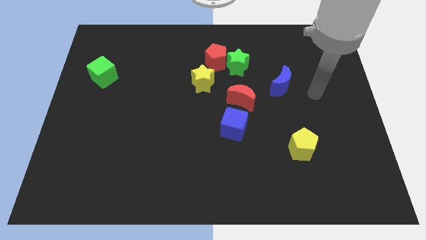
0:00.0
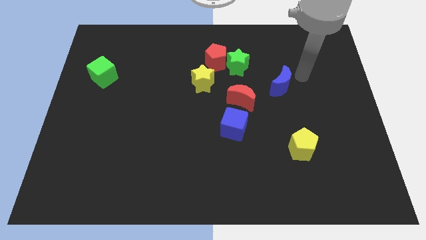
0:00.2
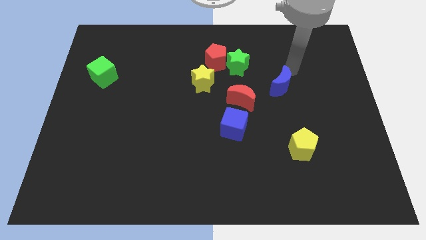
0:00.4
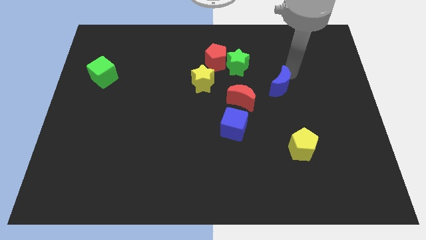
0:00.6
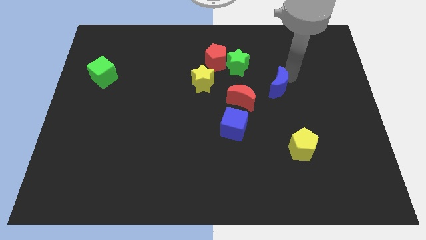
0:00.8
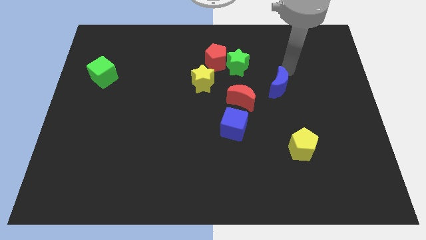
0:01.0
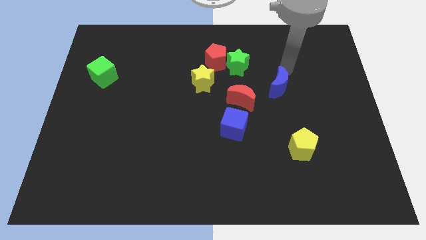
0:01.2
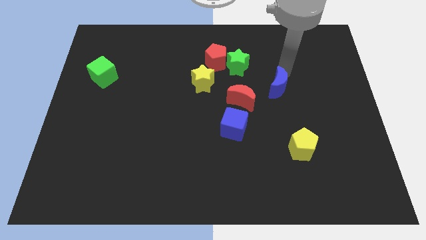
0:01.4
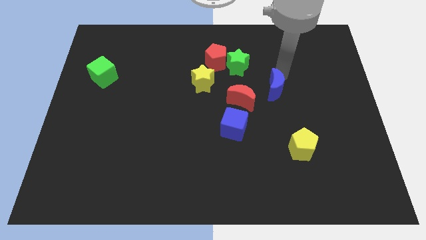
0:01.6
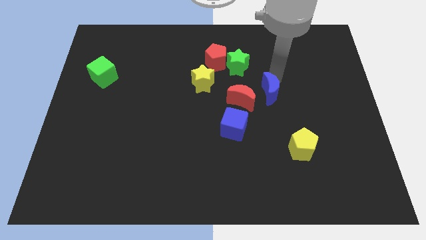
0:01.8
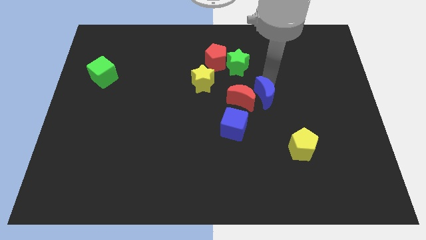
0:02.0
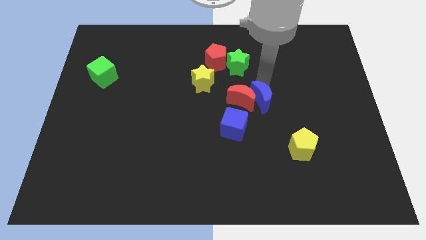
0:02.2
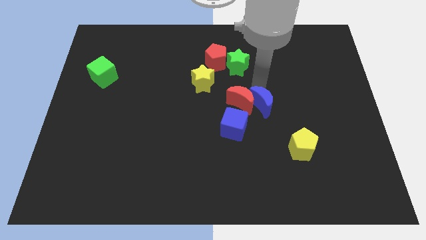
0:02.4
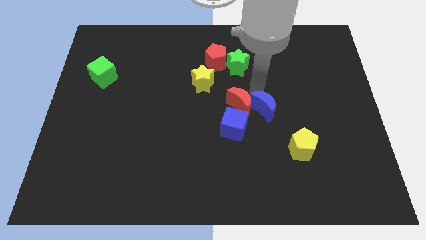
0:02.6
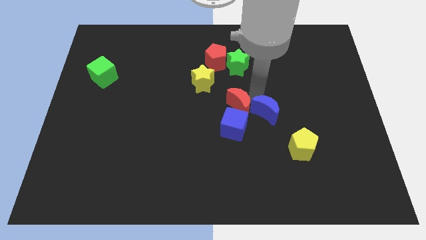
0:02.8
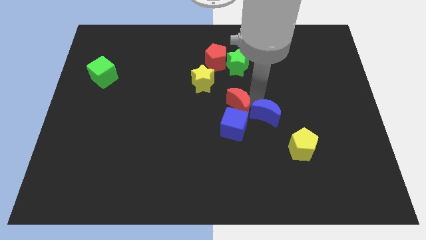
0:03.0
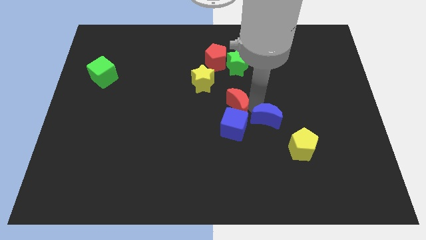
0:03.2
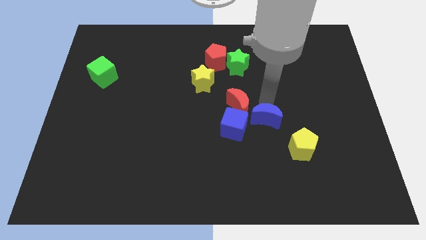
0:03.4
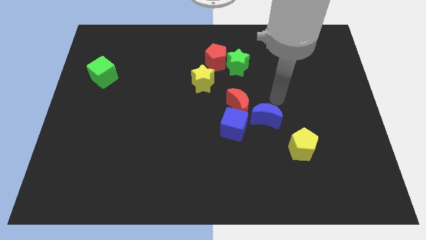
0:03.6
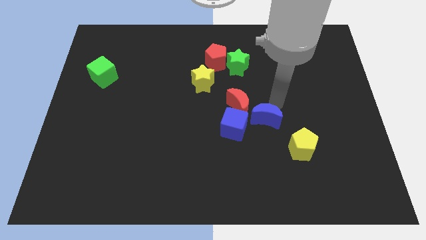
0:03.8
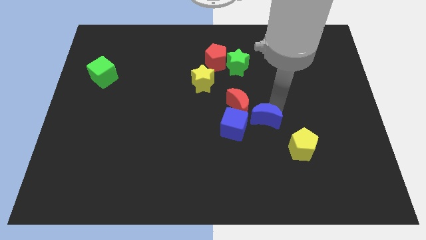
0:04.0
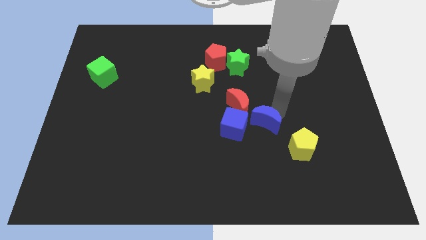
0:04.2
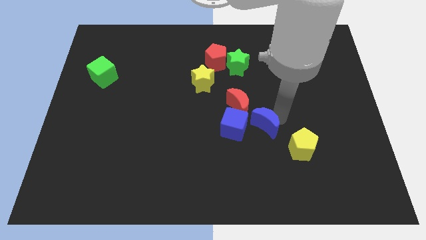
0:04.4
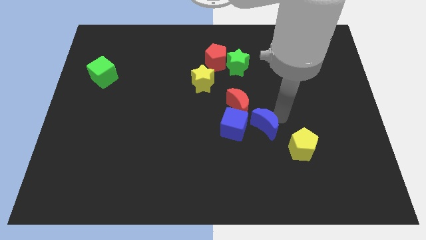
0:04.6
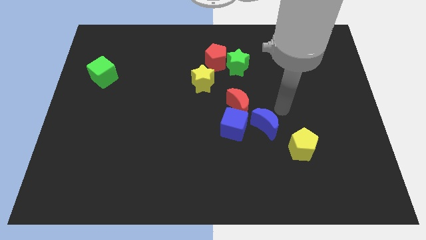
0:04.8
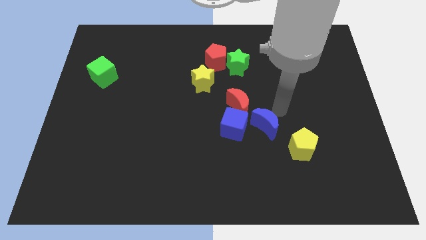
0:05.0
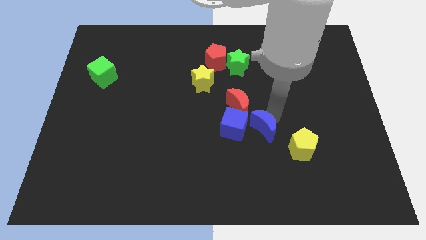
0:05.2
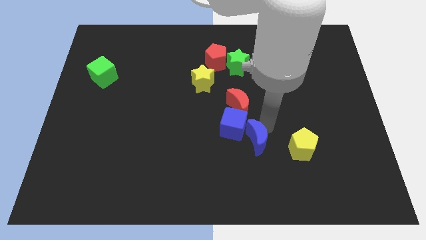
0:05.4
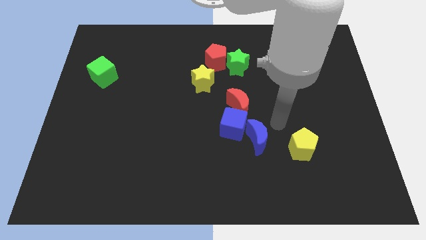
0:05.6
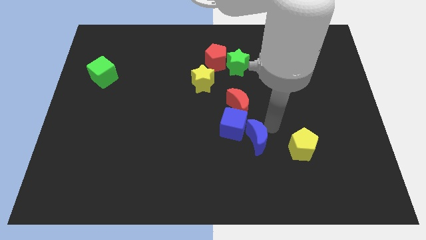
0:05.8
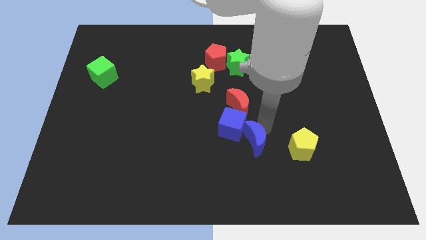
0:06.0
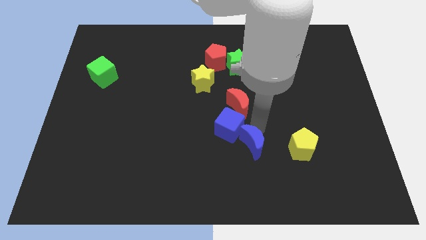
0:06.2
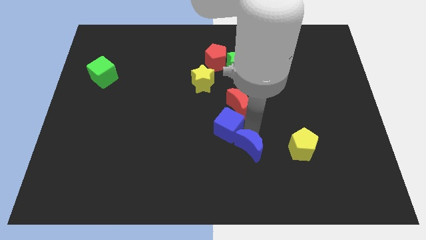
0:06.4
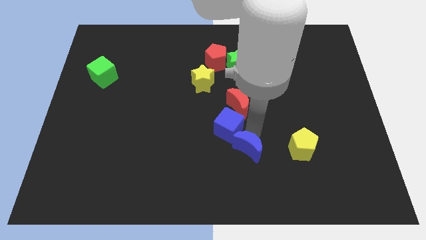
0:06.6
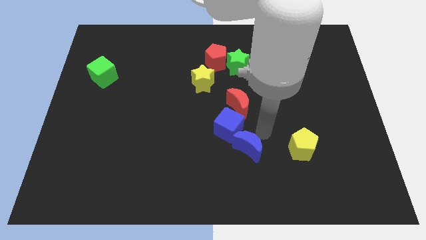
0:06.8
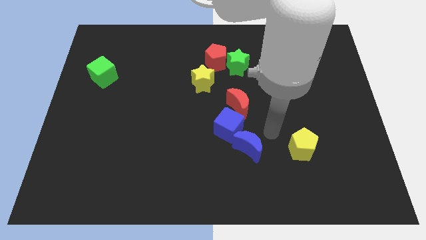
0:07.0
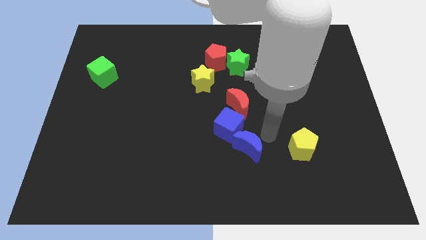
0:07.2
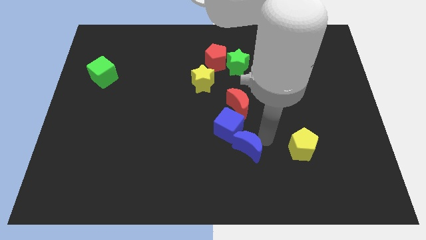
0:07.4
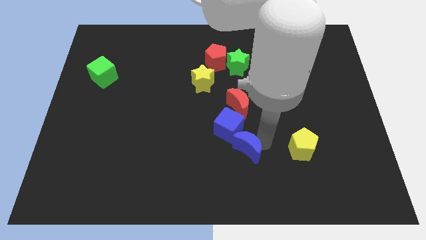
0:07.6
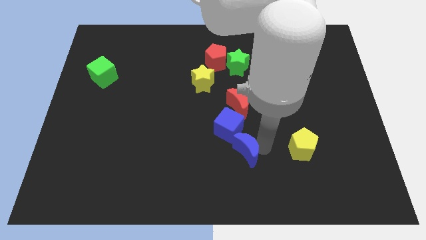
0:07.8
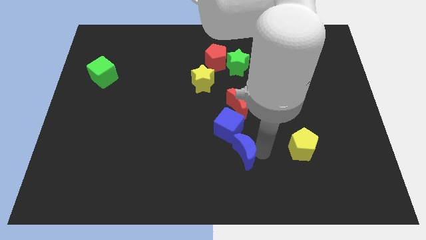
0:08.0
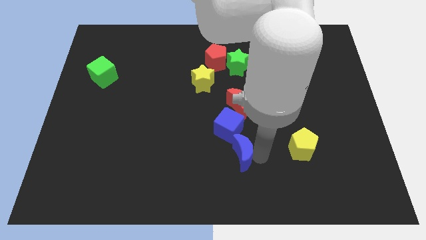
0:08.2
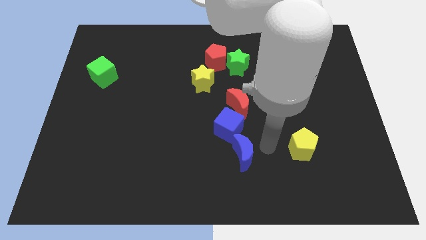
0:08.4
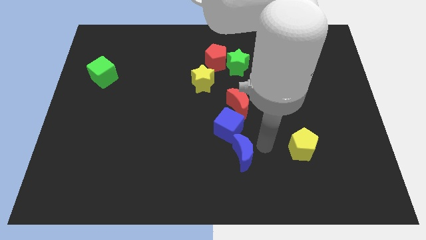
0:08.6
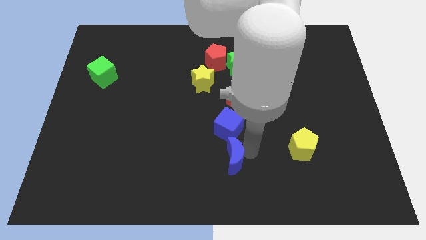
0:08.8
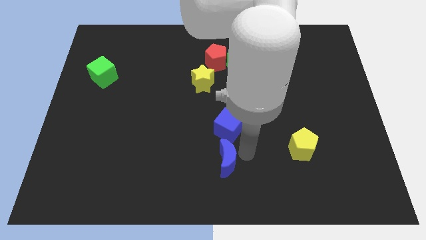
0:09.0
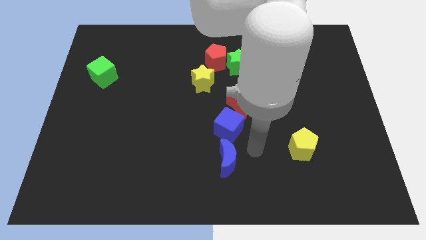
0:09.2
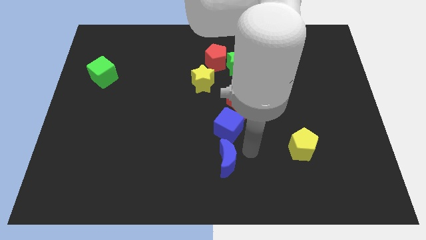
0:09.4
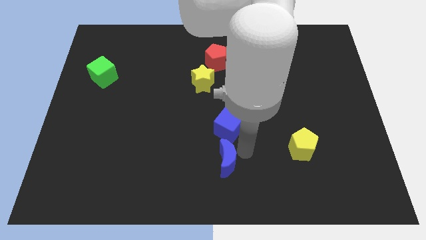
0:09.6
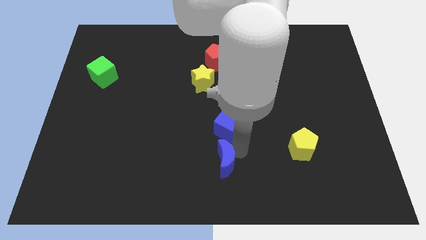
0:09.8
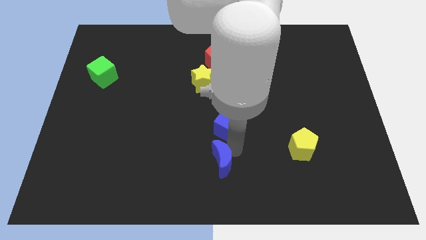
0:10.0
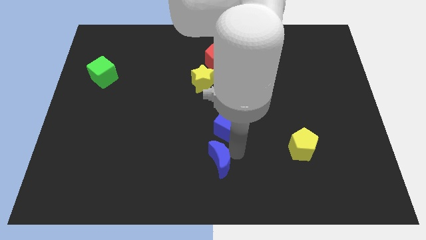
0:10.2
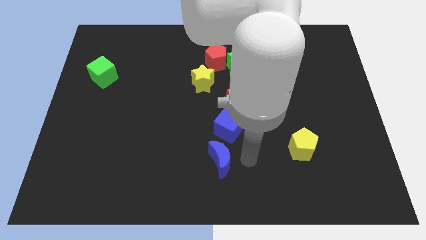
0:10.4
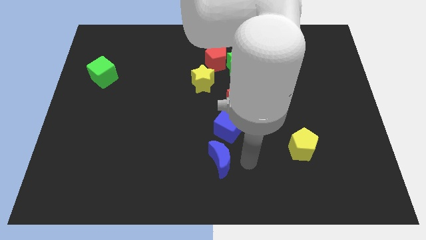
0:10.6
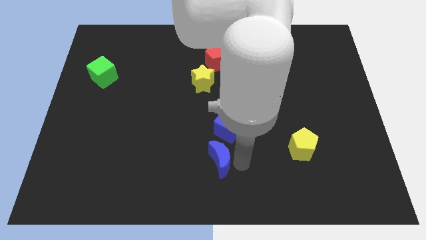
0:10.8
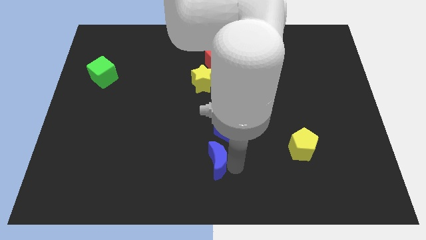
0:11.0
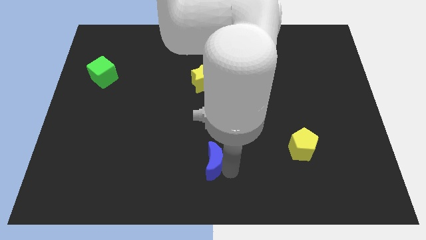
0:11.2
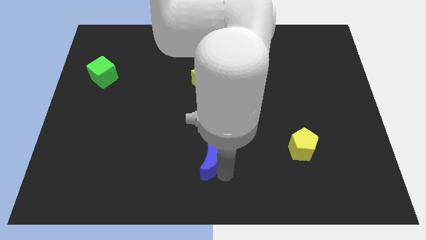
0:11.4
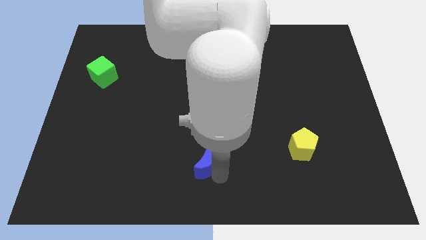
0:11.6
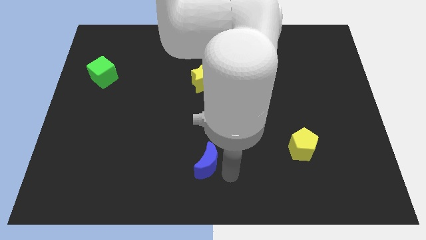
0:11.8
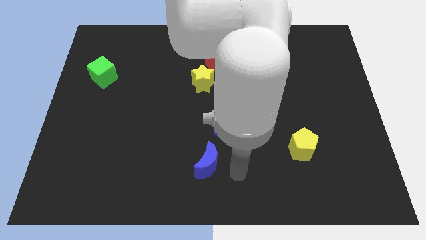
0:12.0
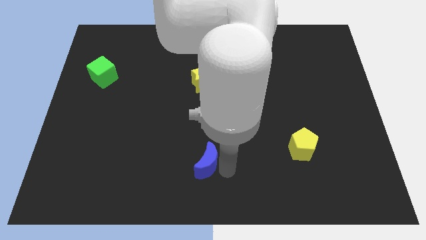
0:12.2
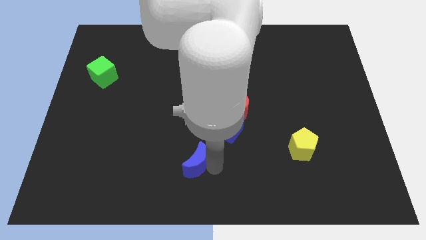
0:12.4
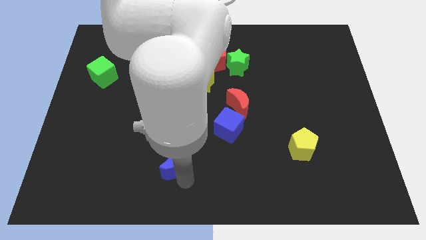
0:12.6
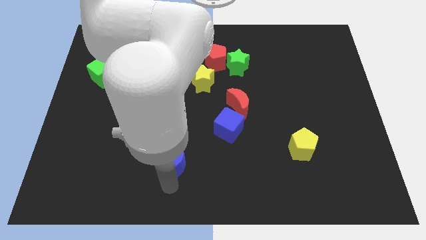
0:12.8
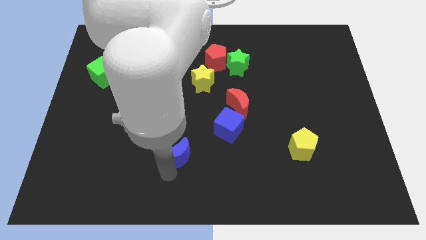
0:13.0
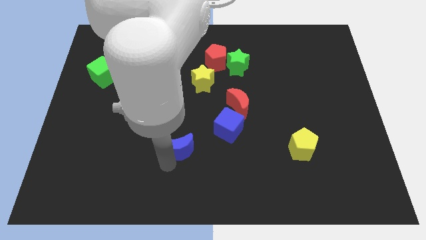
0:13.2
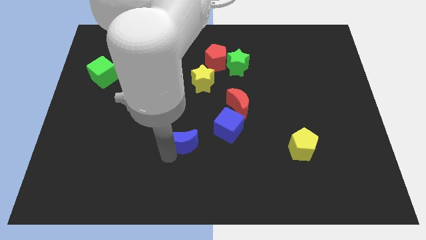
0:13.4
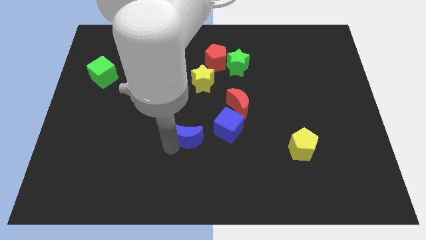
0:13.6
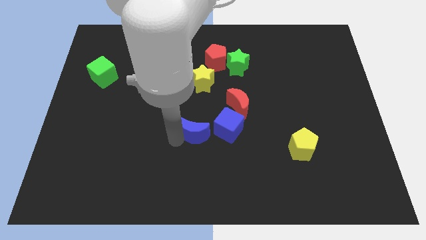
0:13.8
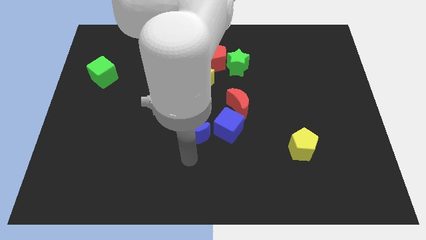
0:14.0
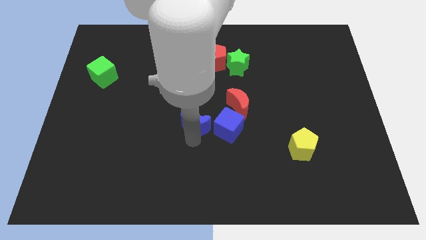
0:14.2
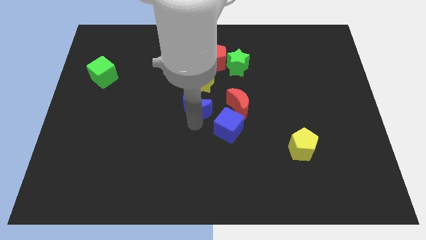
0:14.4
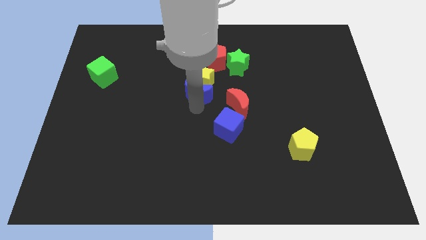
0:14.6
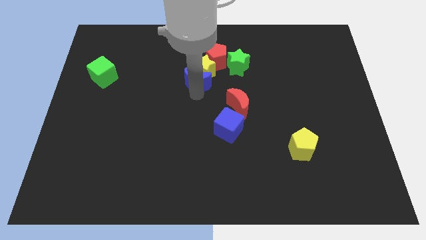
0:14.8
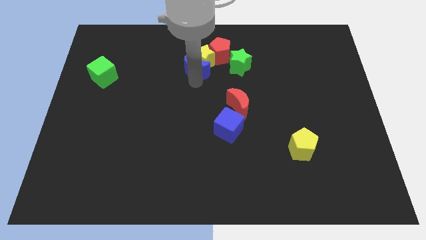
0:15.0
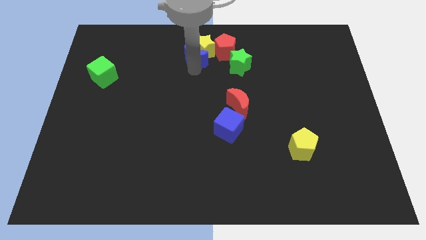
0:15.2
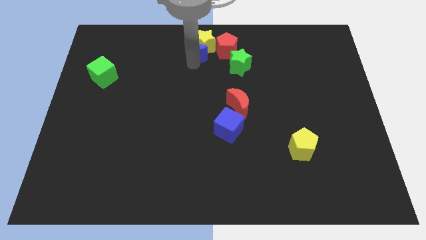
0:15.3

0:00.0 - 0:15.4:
push the blue moon to the top
